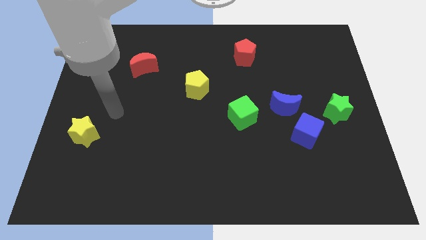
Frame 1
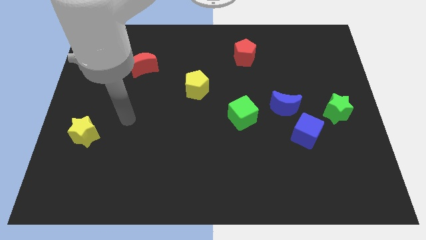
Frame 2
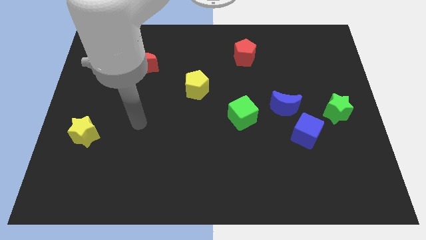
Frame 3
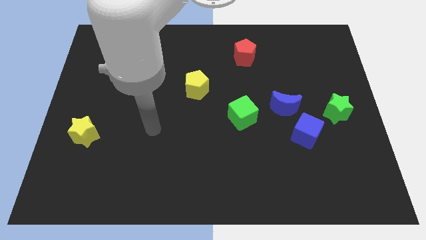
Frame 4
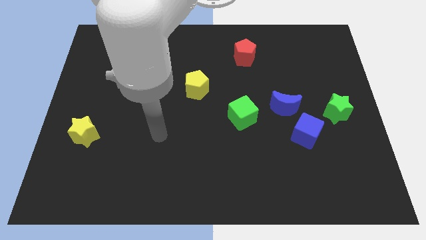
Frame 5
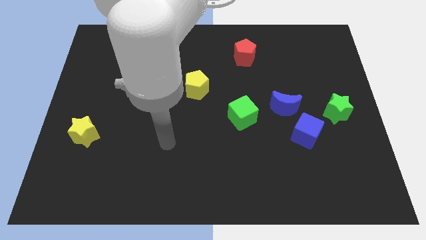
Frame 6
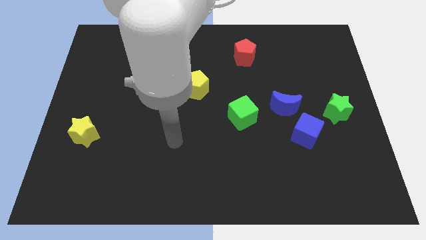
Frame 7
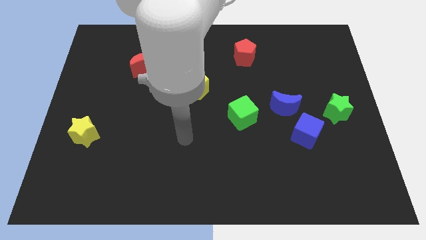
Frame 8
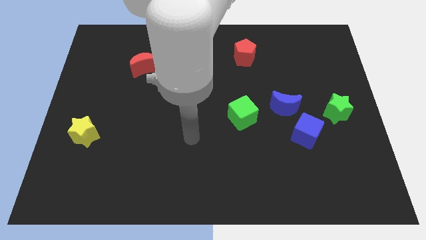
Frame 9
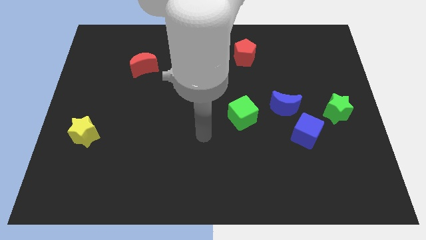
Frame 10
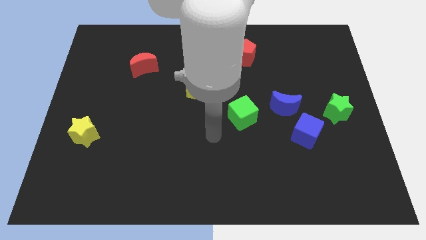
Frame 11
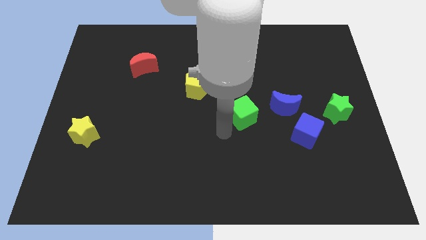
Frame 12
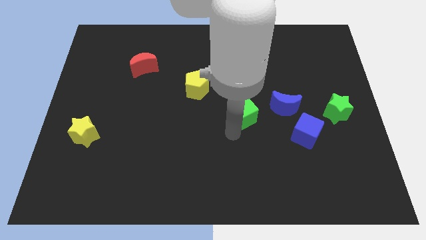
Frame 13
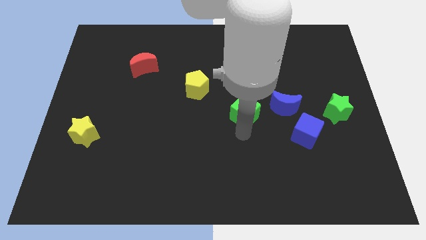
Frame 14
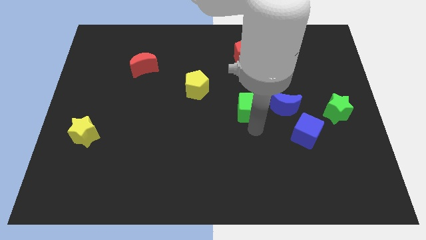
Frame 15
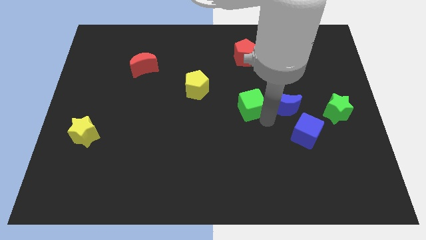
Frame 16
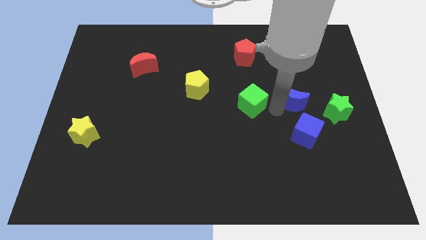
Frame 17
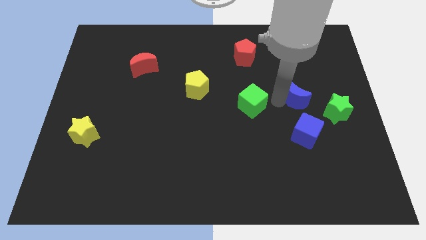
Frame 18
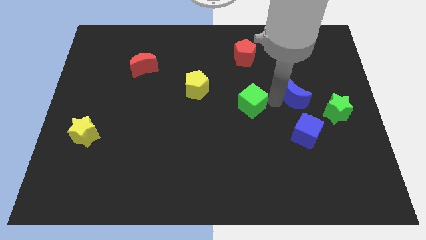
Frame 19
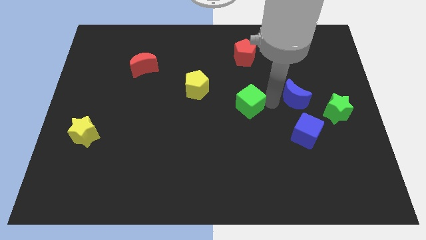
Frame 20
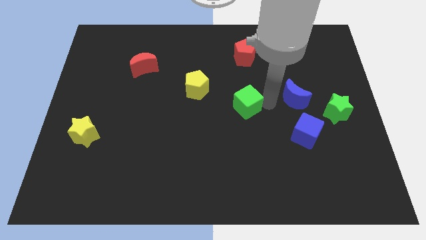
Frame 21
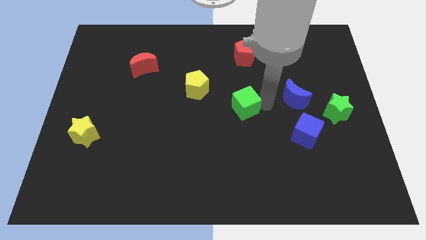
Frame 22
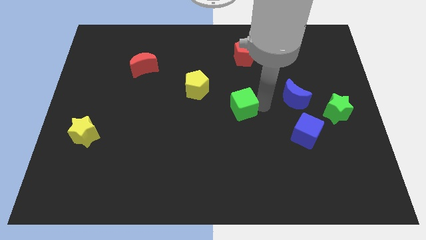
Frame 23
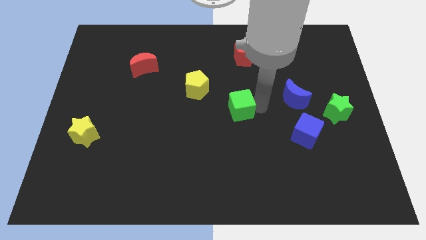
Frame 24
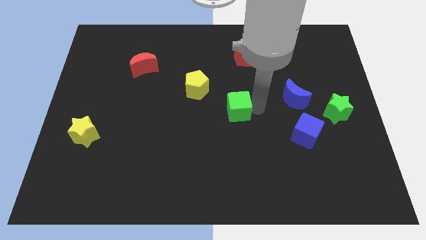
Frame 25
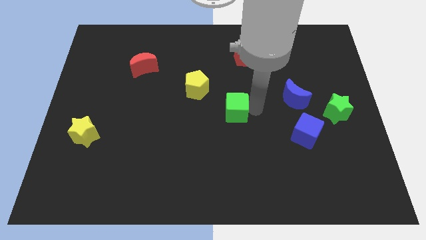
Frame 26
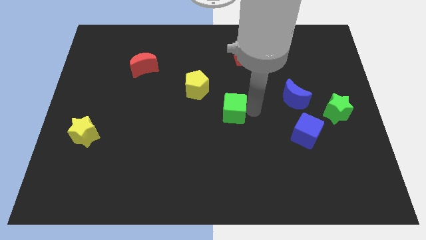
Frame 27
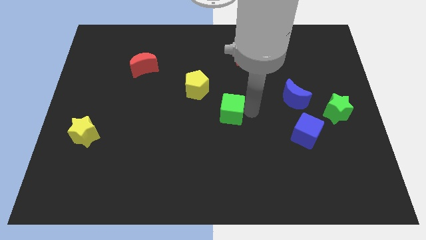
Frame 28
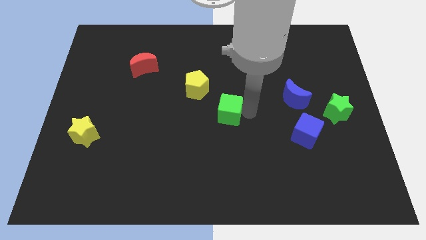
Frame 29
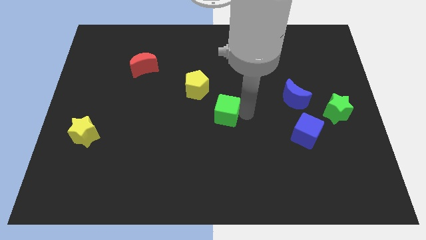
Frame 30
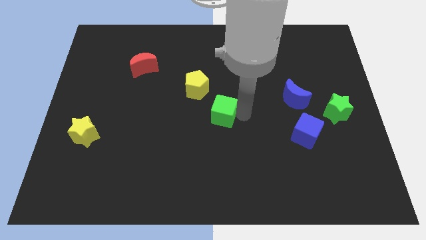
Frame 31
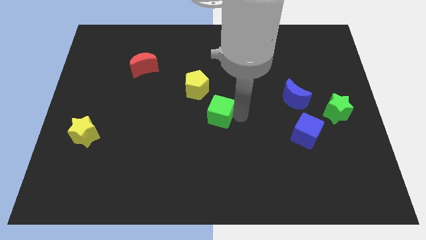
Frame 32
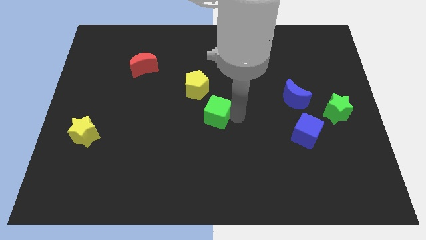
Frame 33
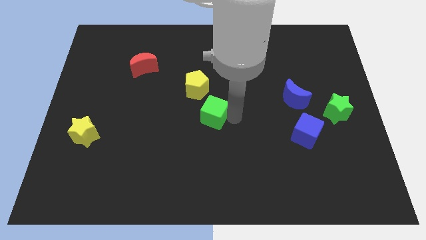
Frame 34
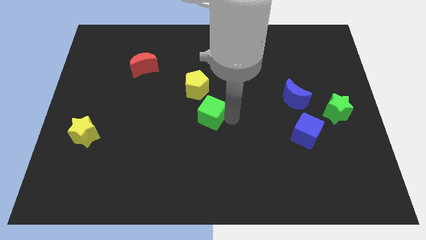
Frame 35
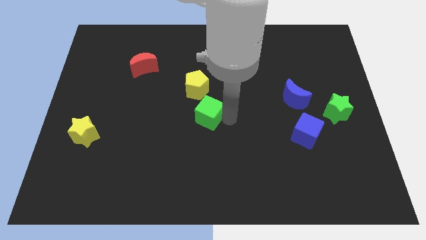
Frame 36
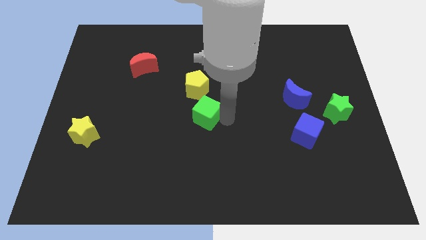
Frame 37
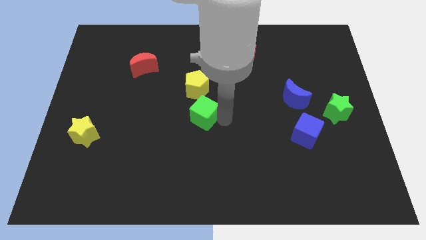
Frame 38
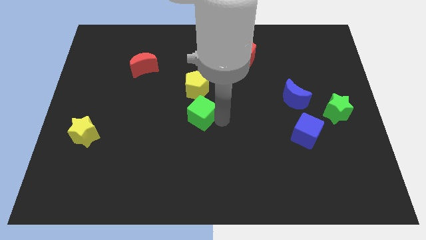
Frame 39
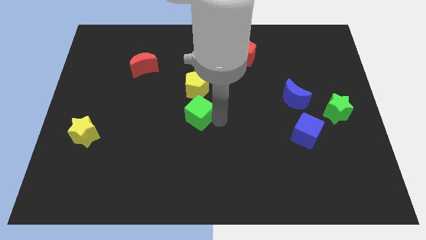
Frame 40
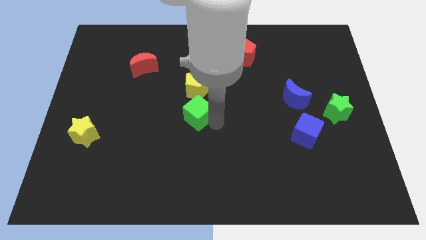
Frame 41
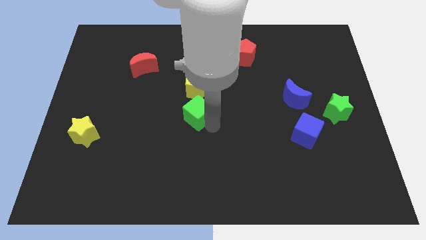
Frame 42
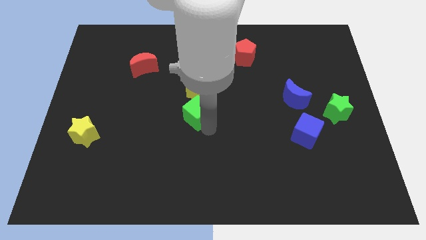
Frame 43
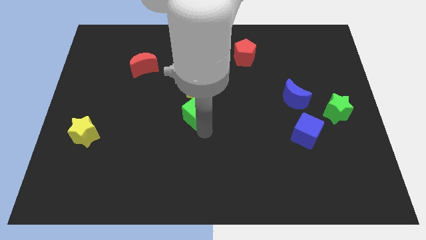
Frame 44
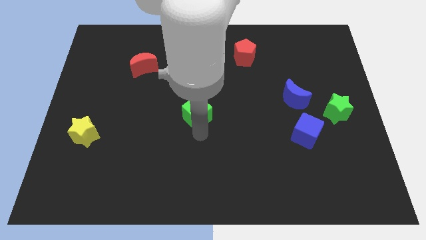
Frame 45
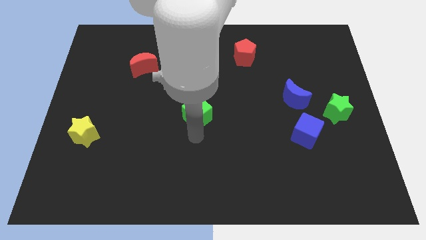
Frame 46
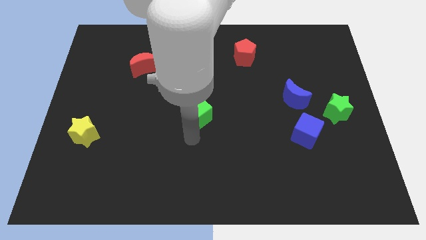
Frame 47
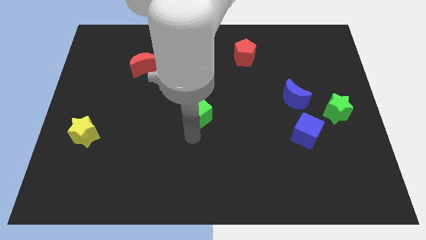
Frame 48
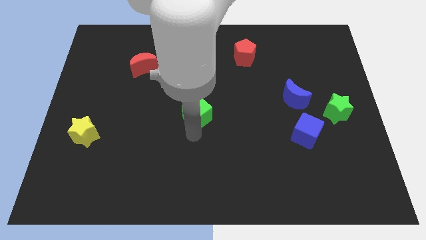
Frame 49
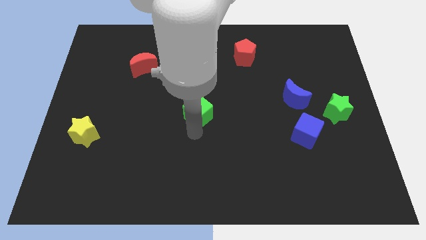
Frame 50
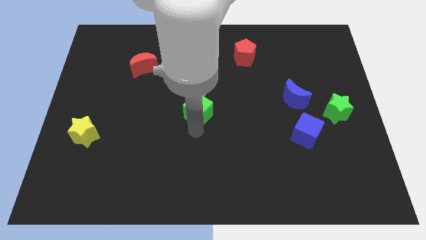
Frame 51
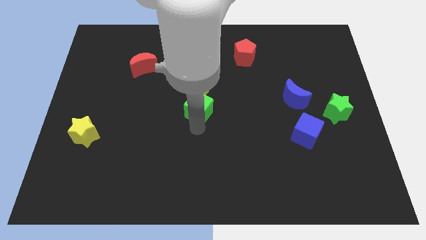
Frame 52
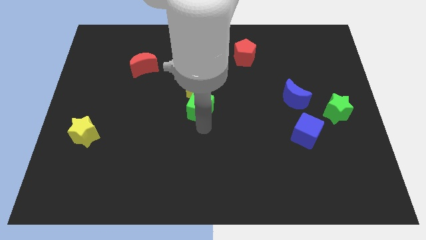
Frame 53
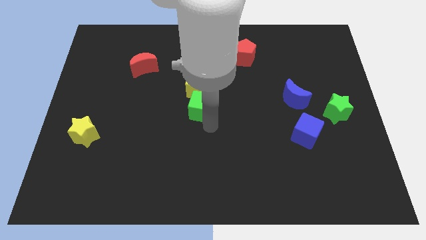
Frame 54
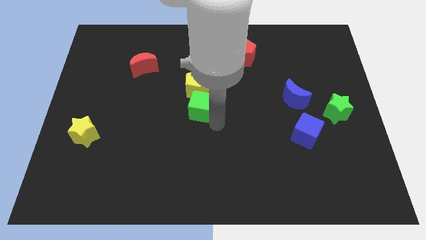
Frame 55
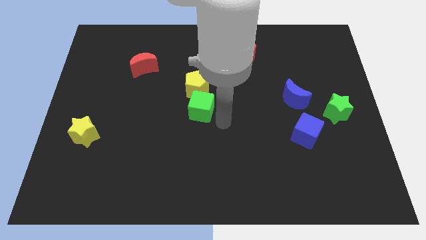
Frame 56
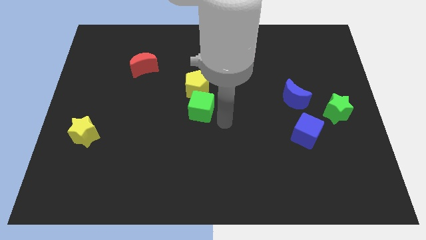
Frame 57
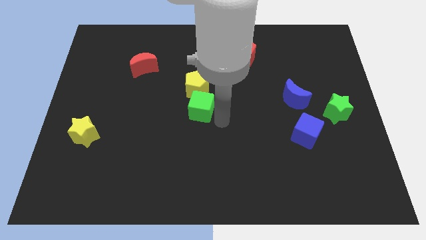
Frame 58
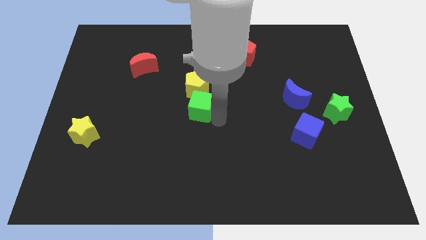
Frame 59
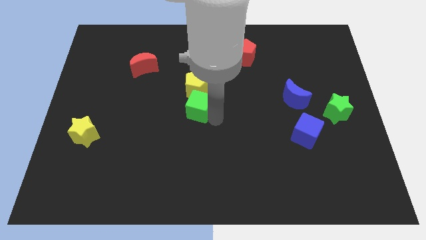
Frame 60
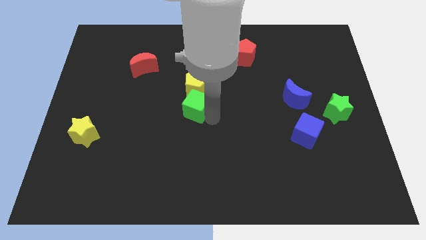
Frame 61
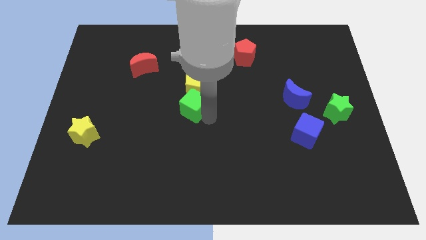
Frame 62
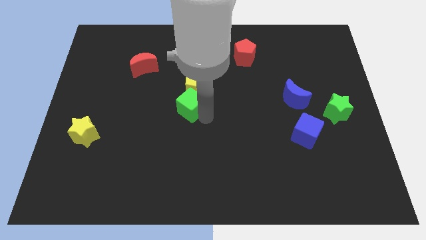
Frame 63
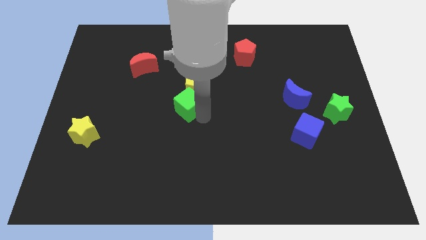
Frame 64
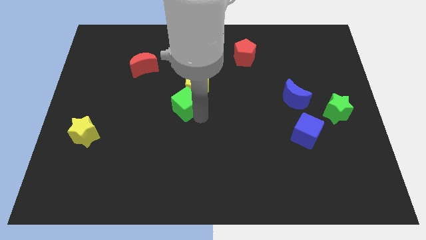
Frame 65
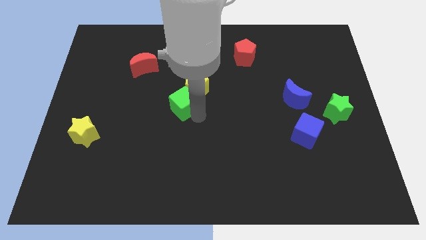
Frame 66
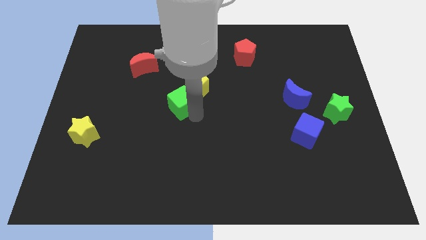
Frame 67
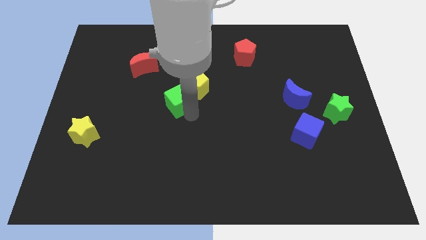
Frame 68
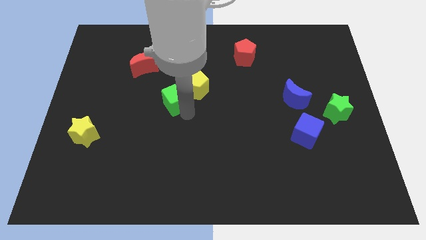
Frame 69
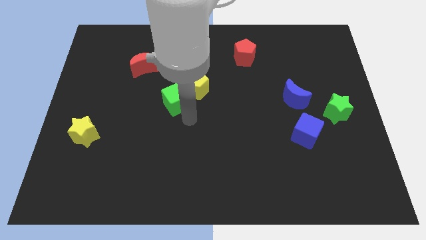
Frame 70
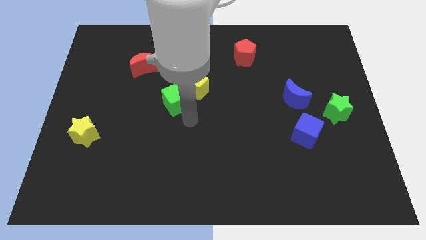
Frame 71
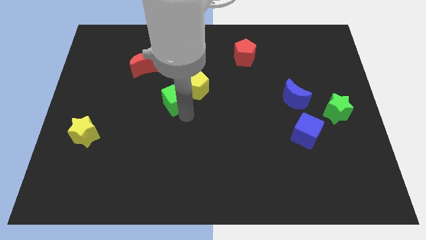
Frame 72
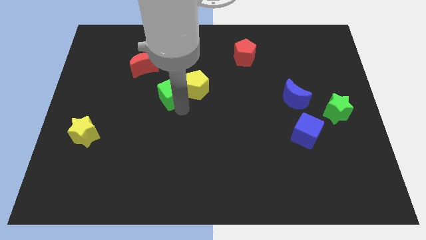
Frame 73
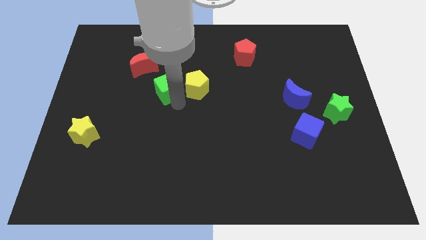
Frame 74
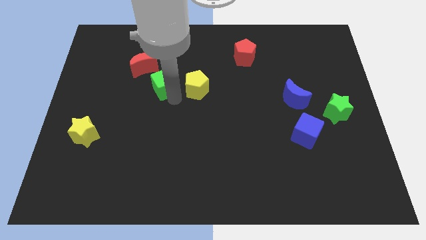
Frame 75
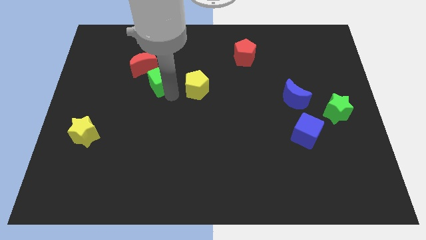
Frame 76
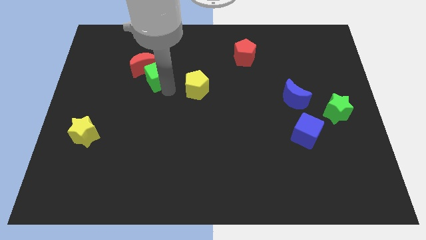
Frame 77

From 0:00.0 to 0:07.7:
move the green cube towards the red moon
